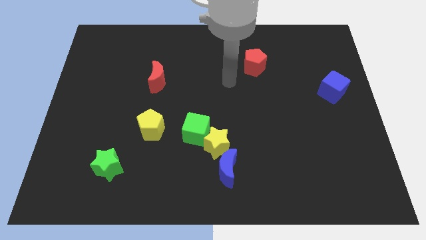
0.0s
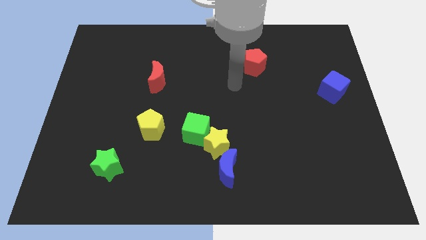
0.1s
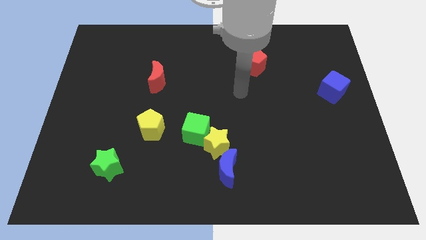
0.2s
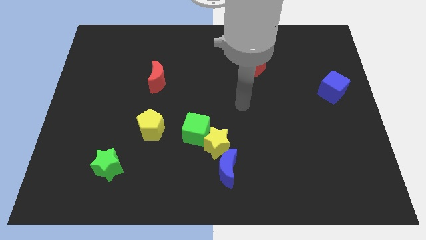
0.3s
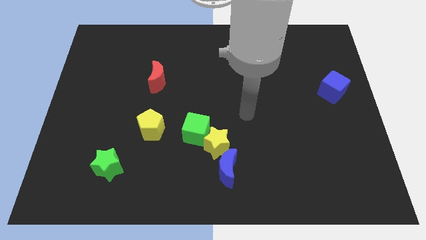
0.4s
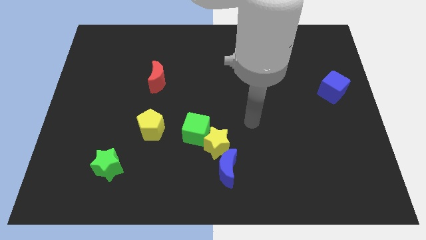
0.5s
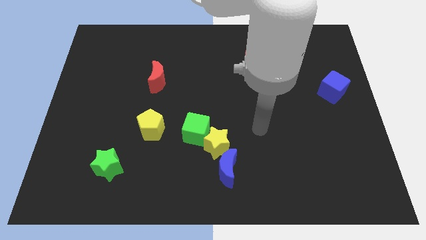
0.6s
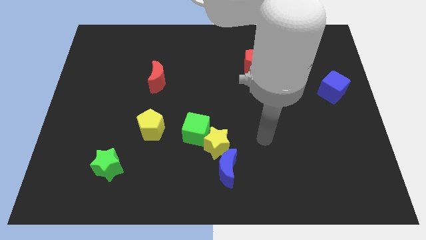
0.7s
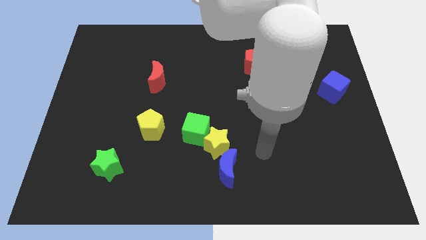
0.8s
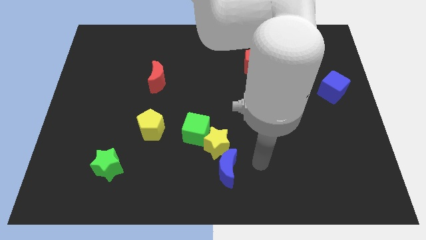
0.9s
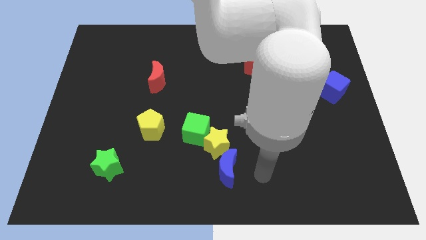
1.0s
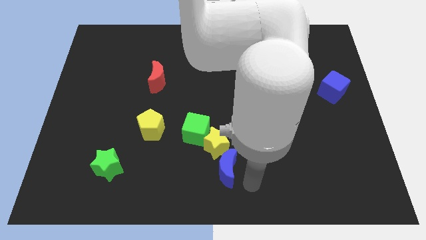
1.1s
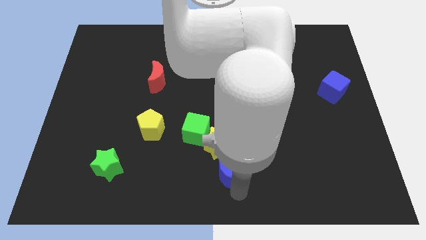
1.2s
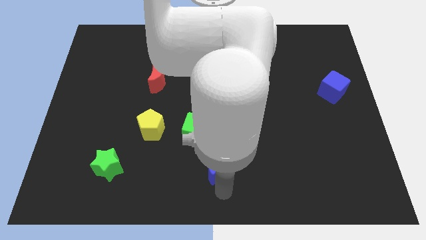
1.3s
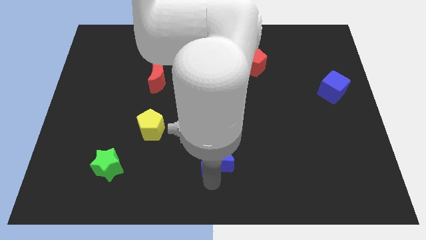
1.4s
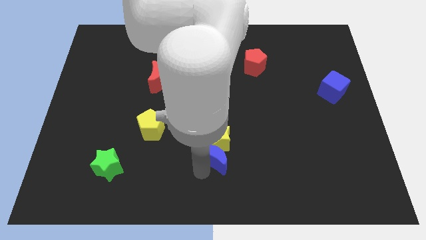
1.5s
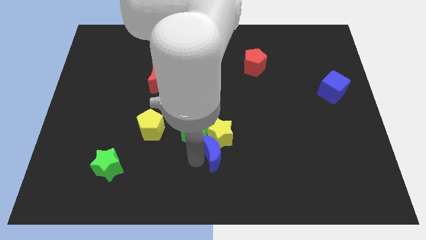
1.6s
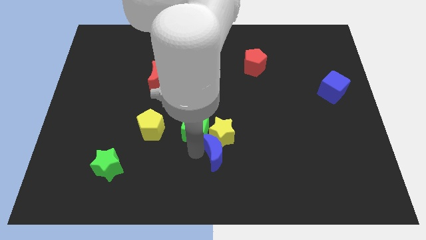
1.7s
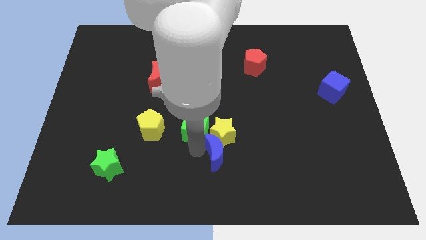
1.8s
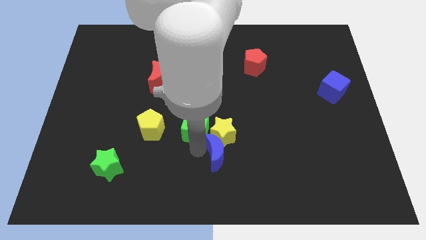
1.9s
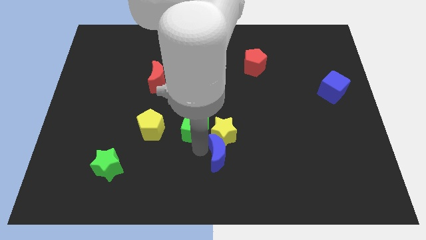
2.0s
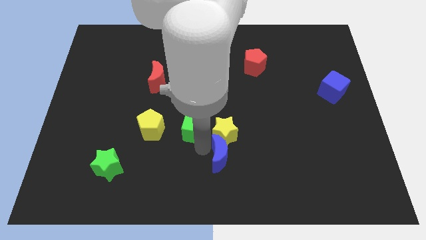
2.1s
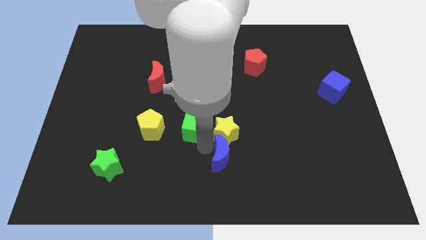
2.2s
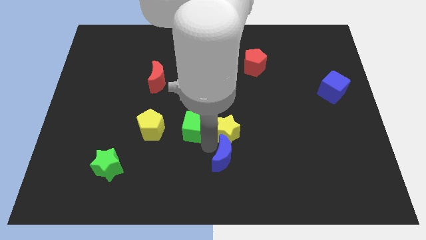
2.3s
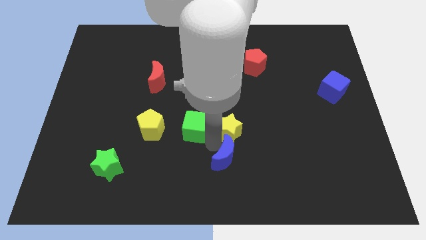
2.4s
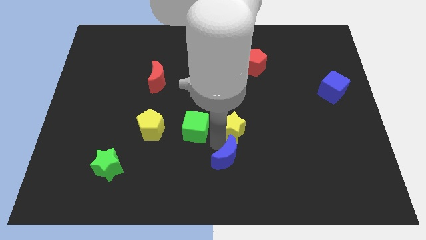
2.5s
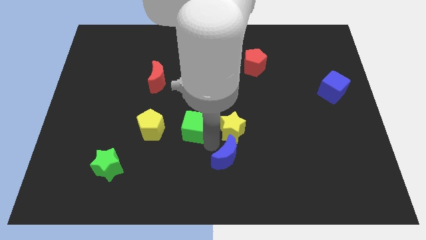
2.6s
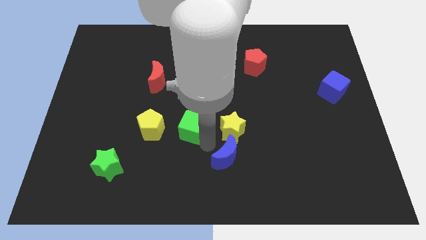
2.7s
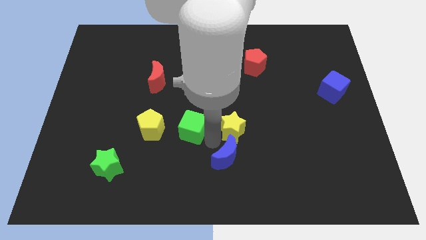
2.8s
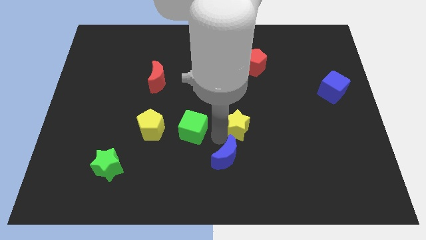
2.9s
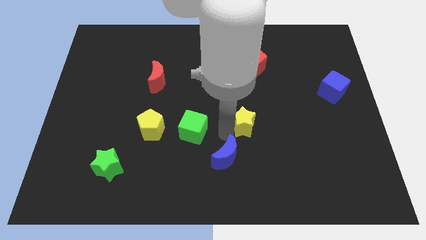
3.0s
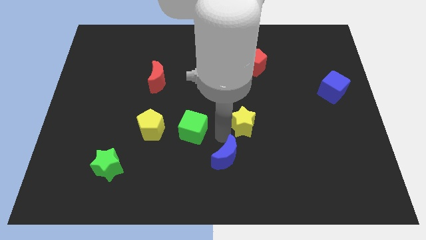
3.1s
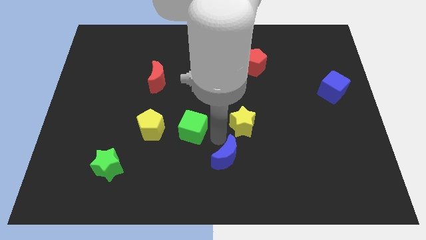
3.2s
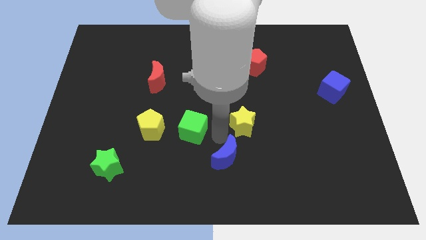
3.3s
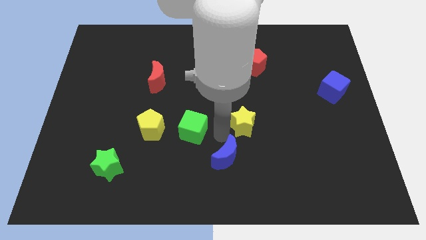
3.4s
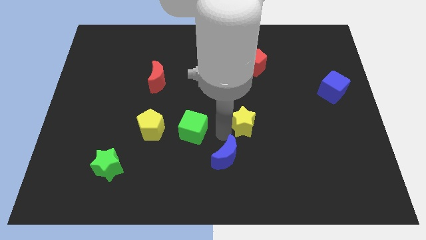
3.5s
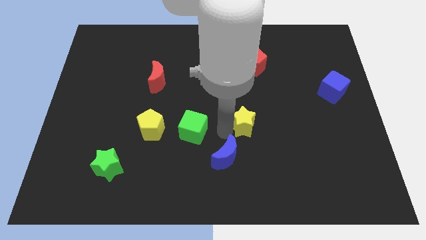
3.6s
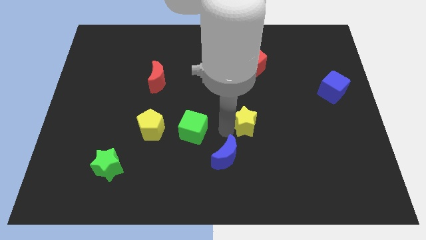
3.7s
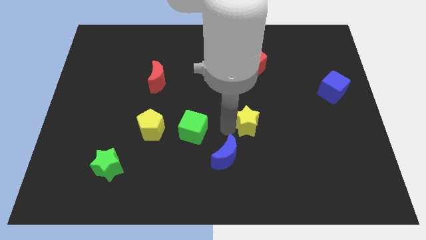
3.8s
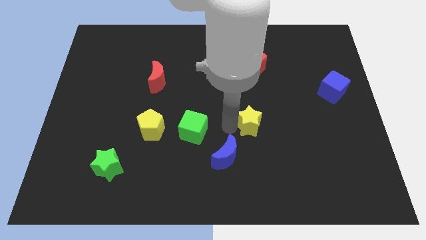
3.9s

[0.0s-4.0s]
move the yellow star away from the green cube and blue moon

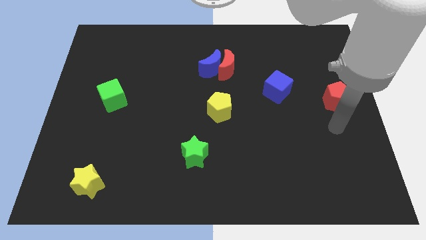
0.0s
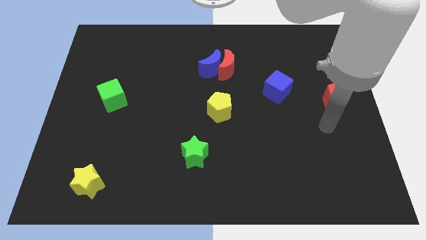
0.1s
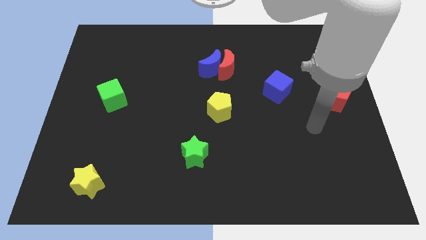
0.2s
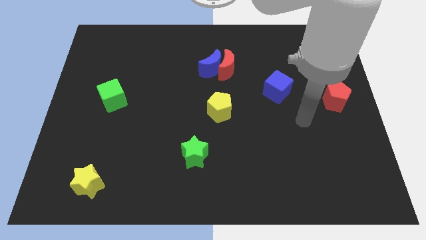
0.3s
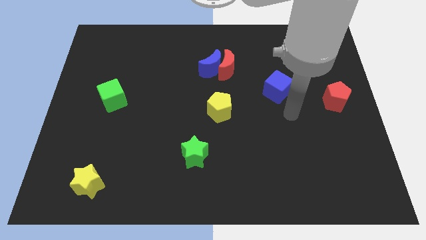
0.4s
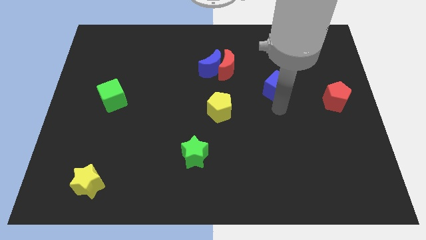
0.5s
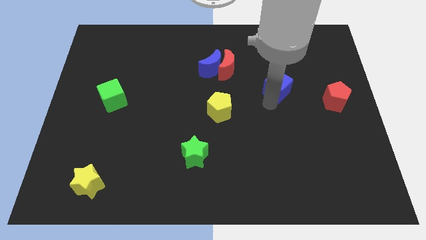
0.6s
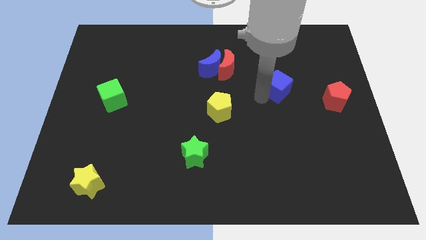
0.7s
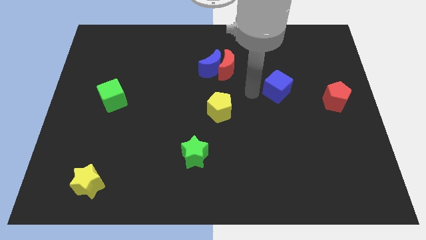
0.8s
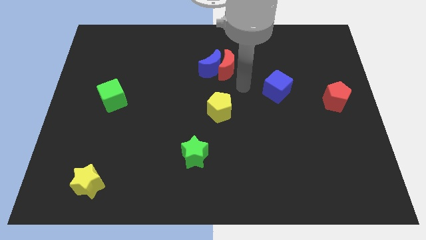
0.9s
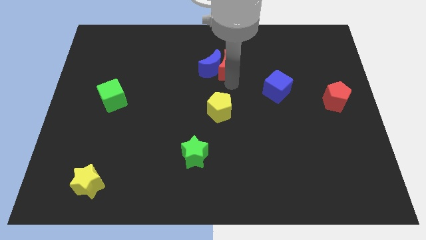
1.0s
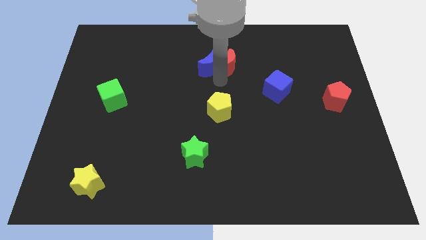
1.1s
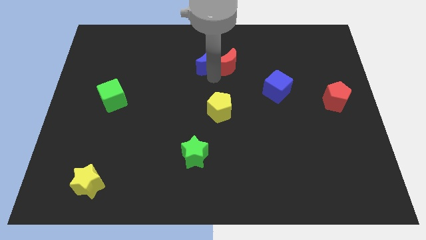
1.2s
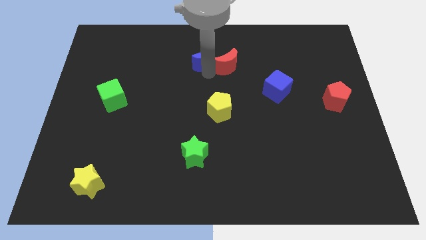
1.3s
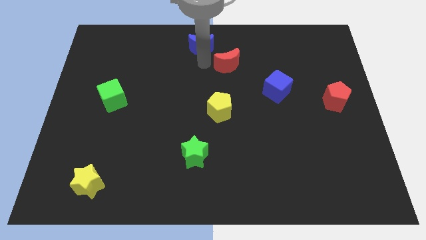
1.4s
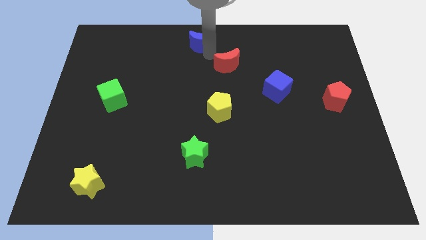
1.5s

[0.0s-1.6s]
pull the red moon apart from the blue moon

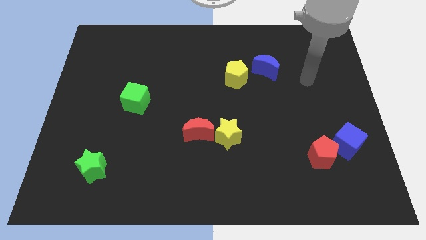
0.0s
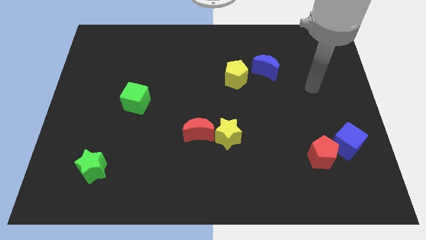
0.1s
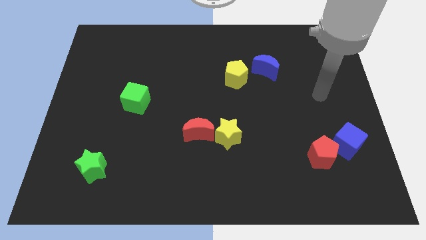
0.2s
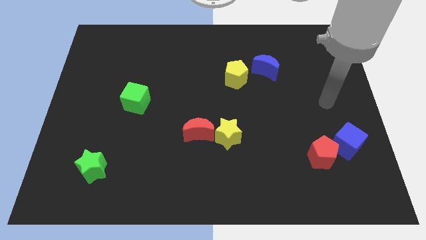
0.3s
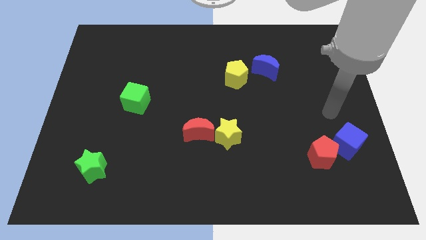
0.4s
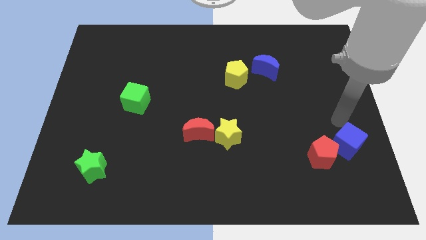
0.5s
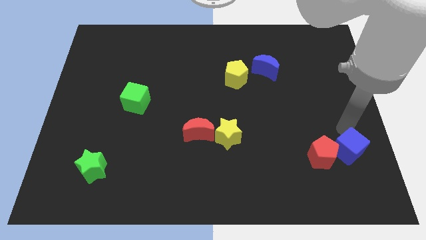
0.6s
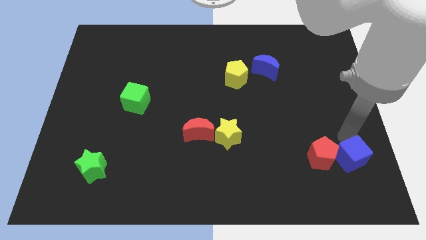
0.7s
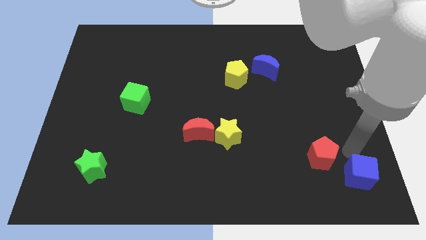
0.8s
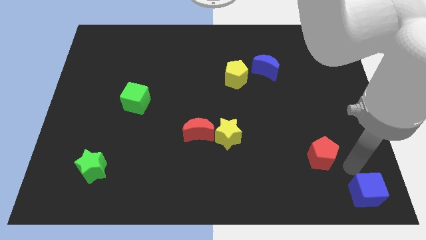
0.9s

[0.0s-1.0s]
separate the red pentagon from the blue cube

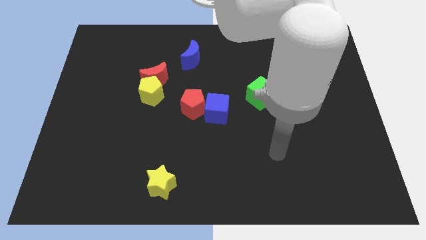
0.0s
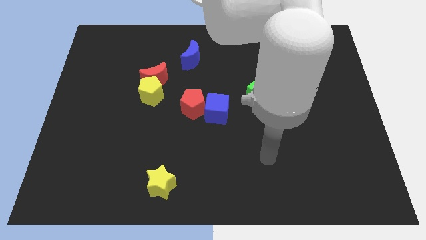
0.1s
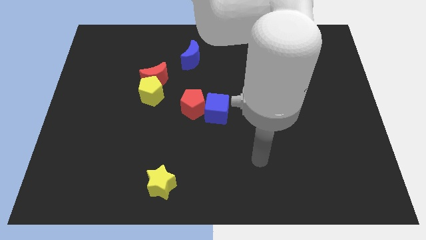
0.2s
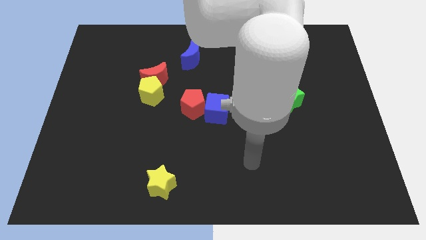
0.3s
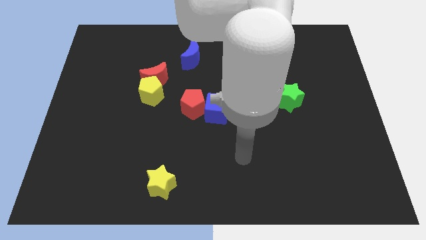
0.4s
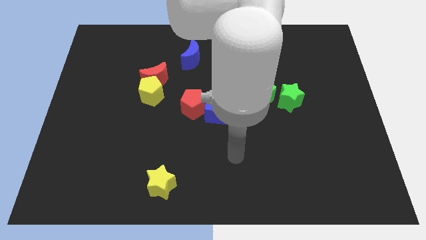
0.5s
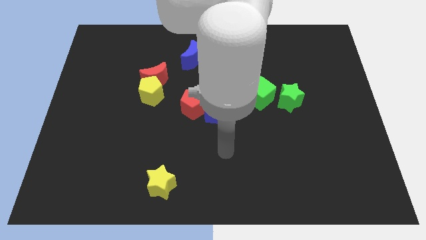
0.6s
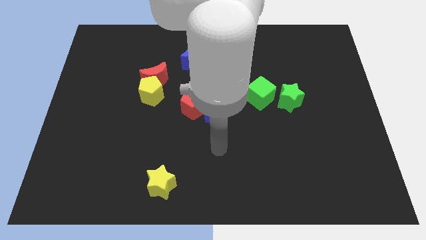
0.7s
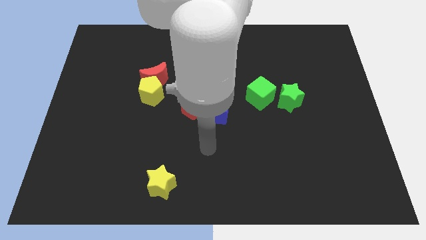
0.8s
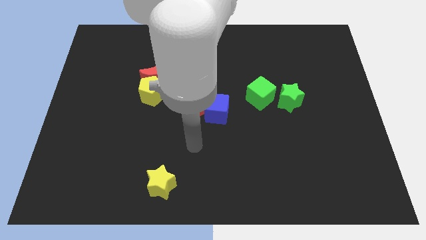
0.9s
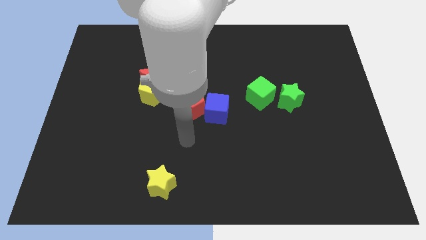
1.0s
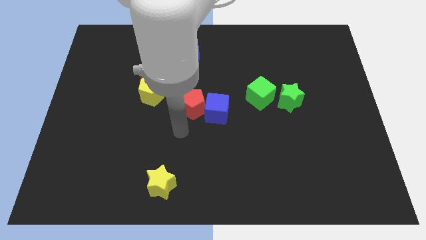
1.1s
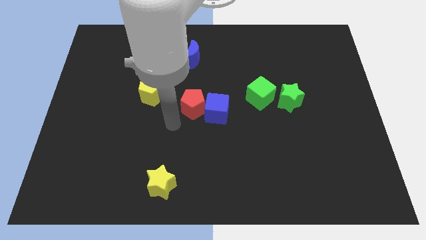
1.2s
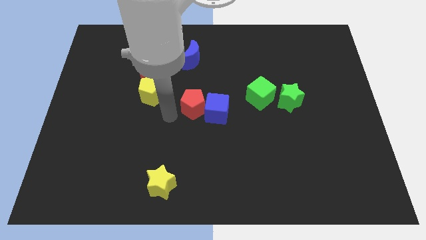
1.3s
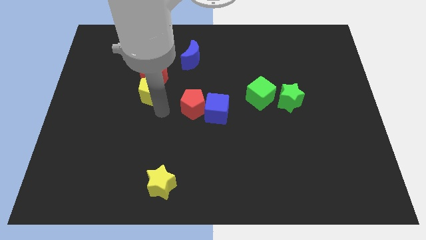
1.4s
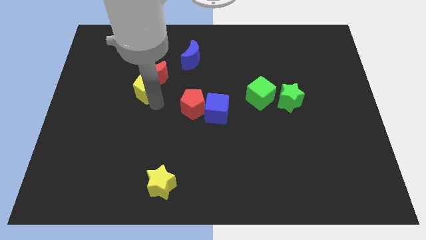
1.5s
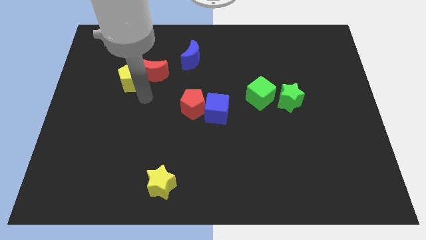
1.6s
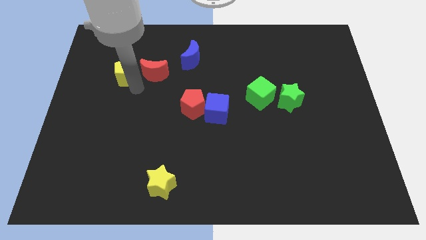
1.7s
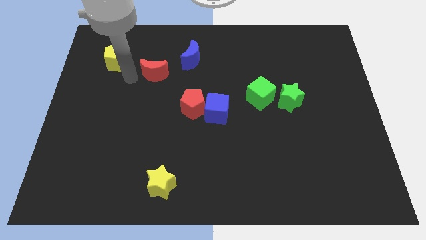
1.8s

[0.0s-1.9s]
separate the red moon from the yellow pentagon

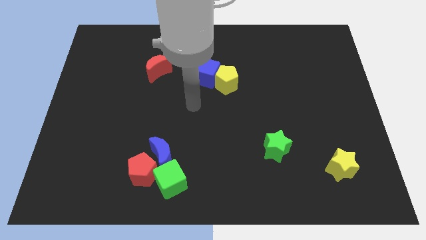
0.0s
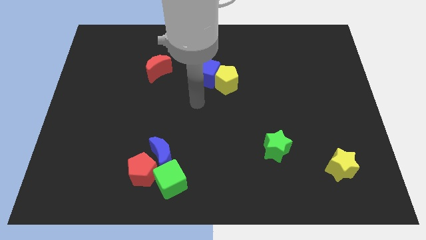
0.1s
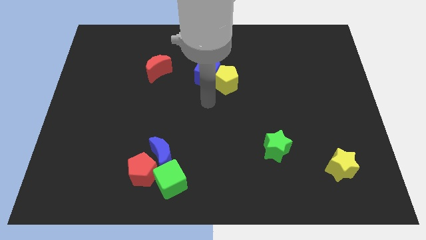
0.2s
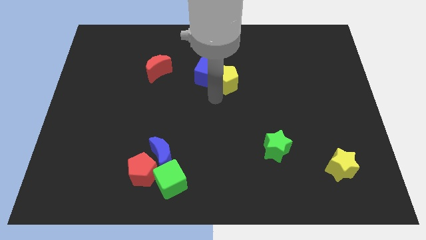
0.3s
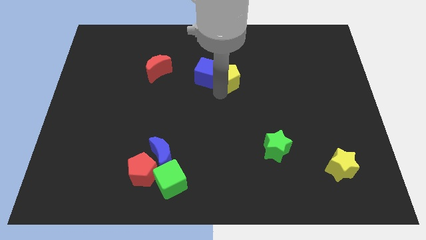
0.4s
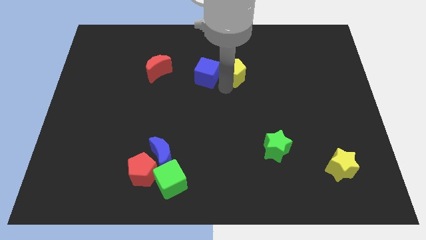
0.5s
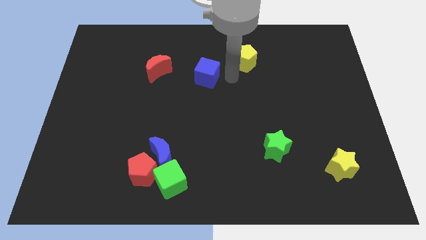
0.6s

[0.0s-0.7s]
separate the blue cube from the yellow pentagon
